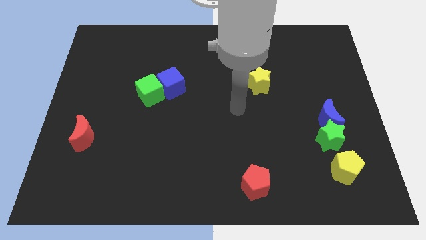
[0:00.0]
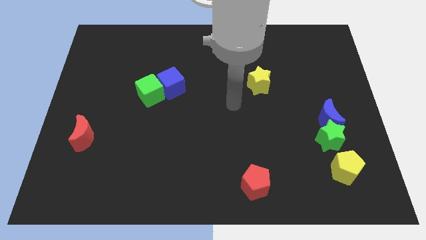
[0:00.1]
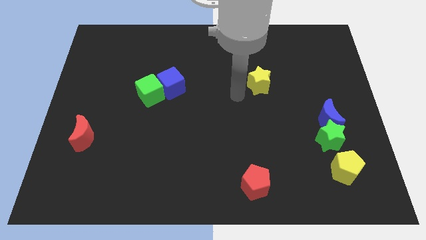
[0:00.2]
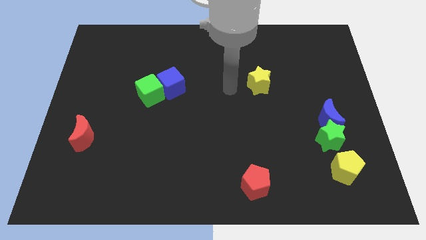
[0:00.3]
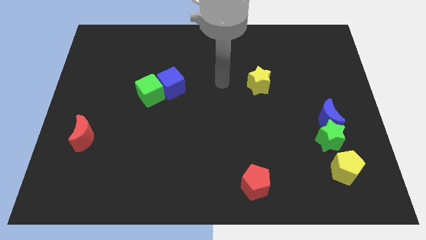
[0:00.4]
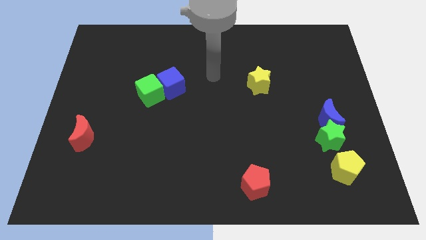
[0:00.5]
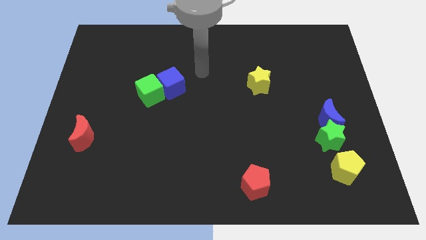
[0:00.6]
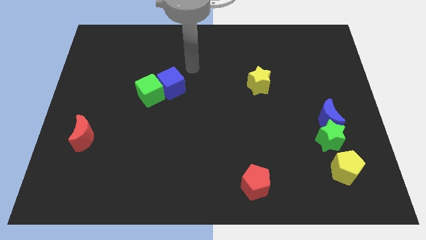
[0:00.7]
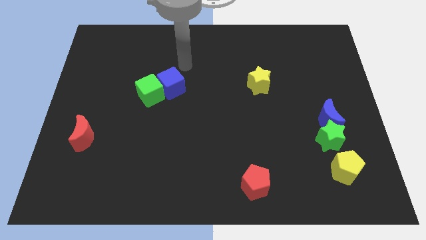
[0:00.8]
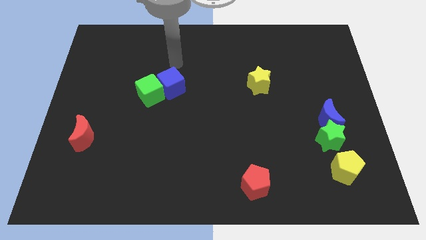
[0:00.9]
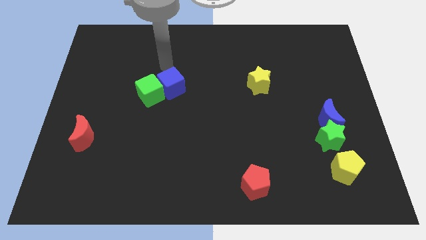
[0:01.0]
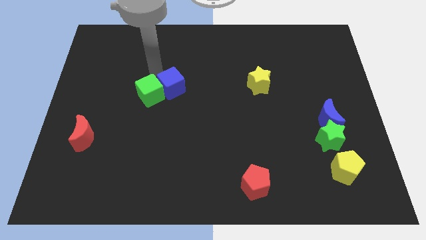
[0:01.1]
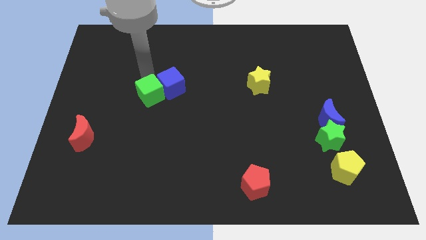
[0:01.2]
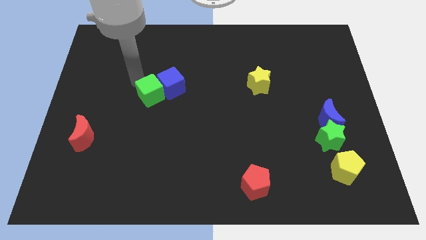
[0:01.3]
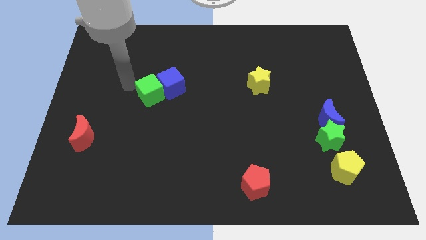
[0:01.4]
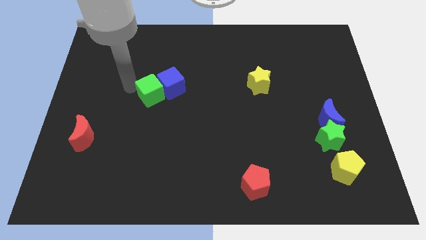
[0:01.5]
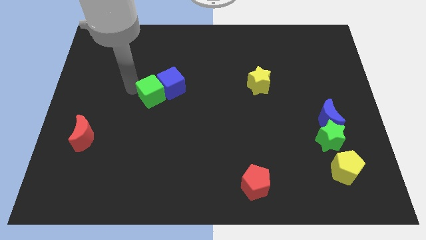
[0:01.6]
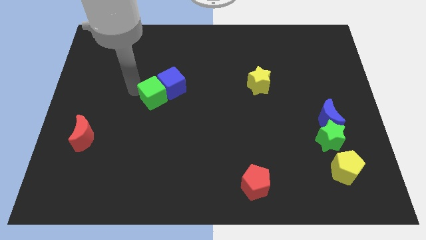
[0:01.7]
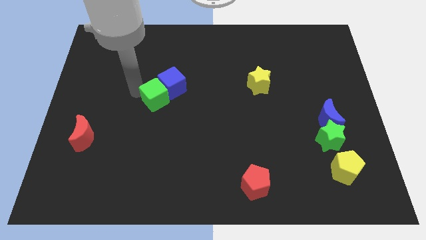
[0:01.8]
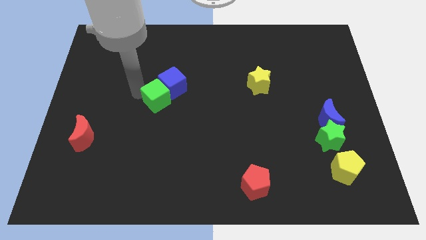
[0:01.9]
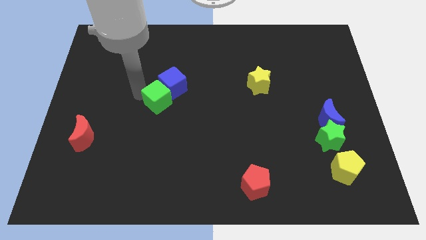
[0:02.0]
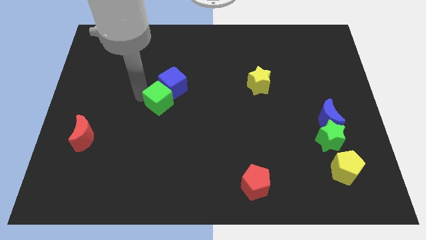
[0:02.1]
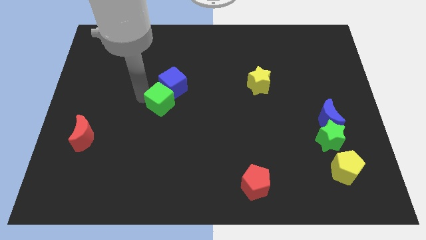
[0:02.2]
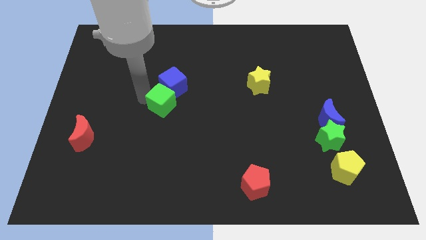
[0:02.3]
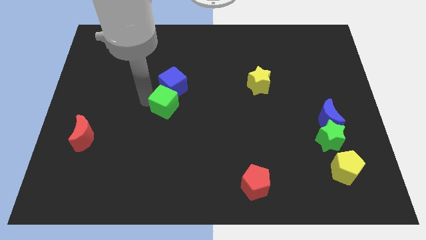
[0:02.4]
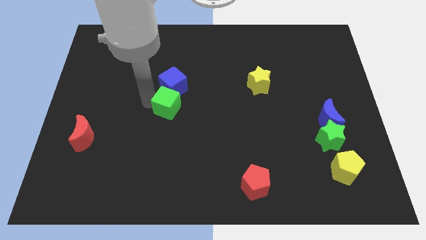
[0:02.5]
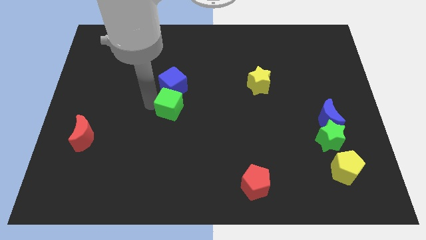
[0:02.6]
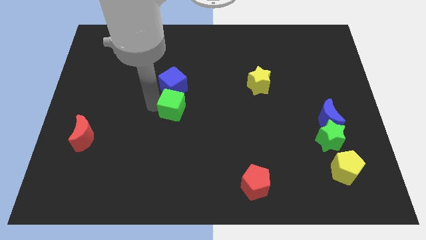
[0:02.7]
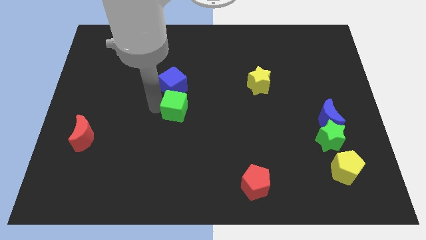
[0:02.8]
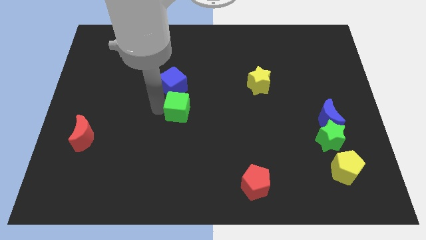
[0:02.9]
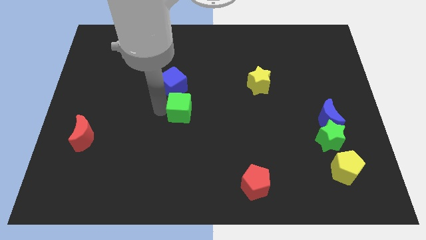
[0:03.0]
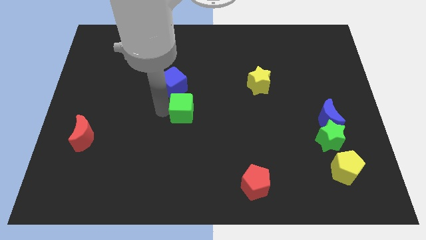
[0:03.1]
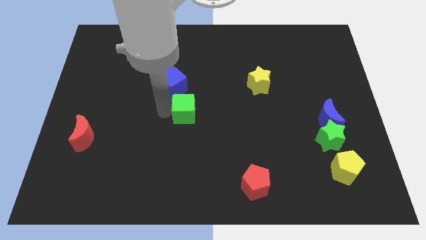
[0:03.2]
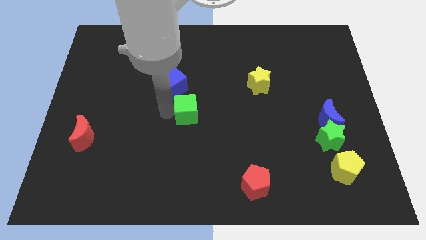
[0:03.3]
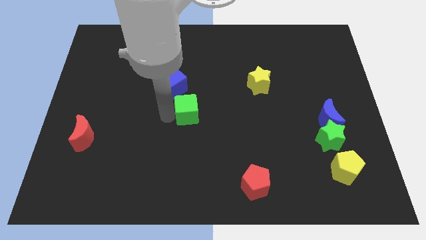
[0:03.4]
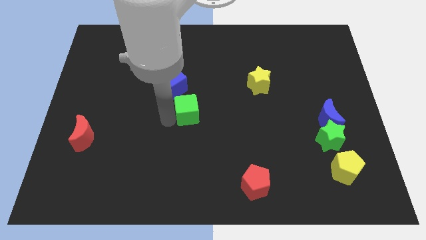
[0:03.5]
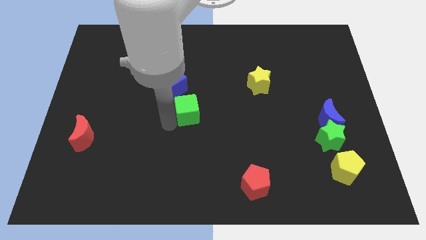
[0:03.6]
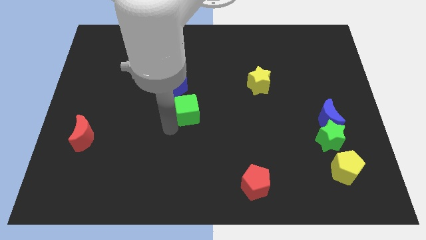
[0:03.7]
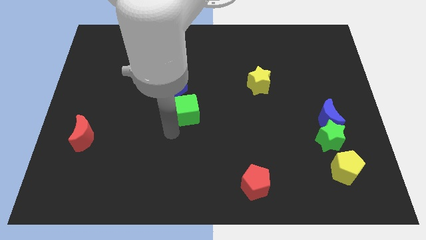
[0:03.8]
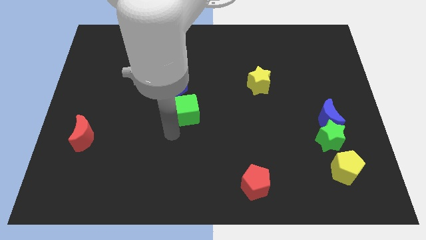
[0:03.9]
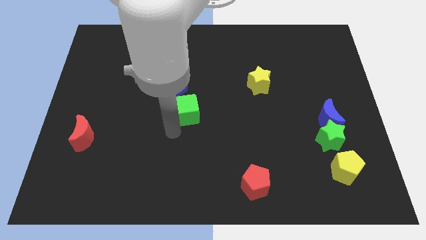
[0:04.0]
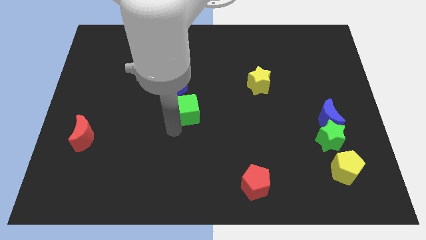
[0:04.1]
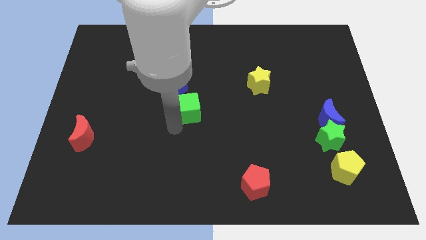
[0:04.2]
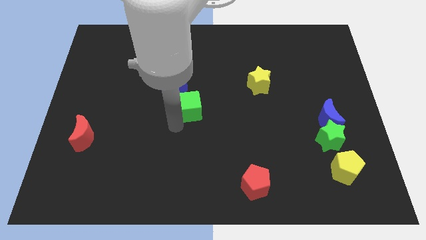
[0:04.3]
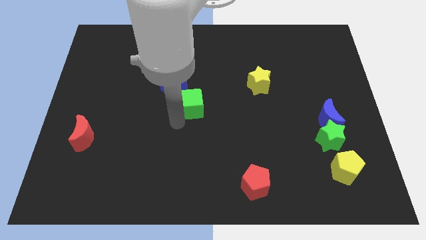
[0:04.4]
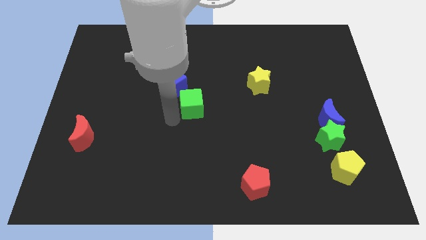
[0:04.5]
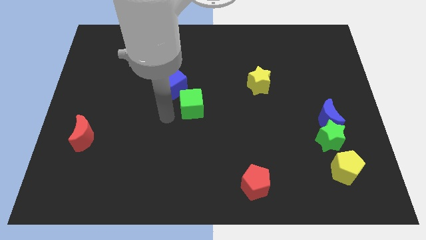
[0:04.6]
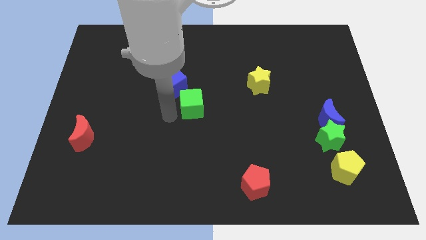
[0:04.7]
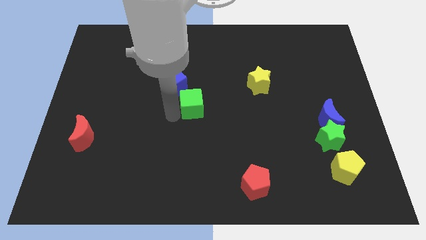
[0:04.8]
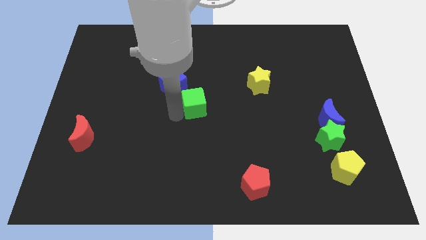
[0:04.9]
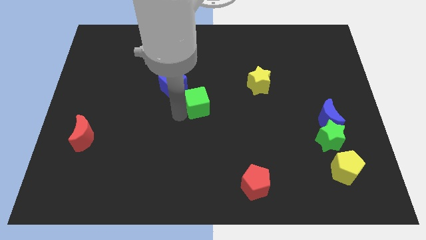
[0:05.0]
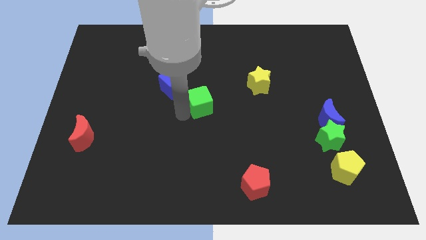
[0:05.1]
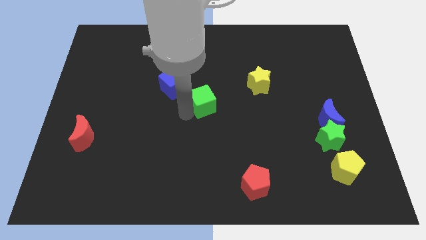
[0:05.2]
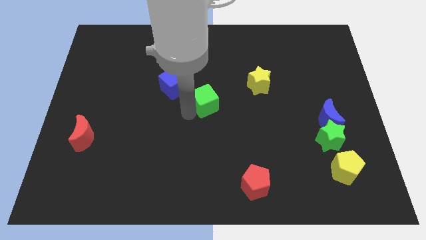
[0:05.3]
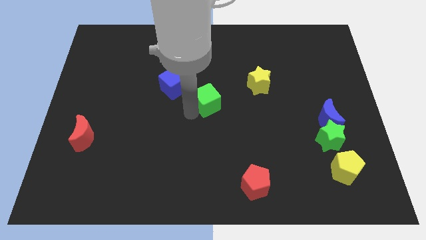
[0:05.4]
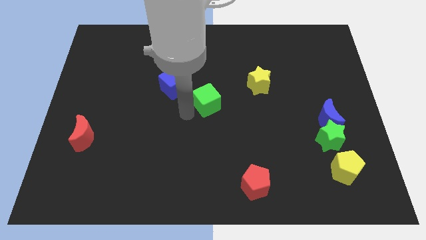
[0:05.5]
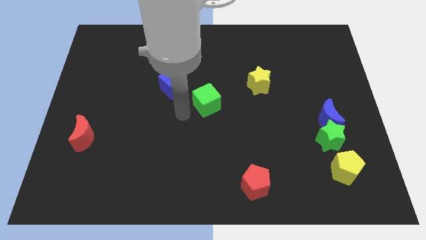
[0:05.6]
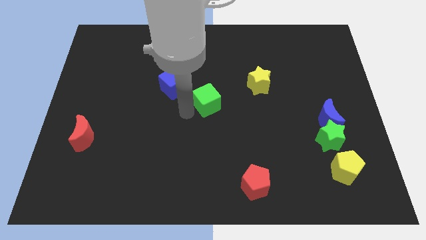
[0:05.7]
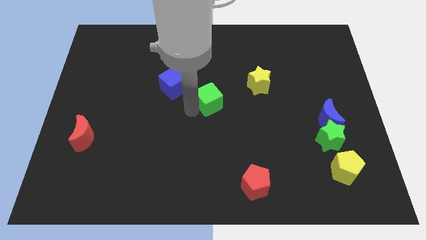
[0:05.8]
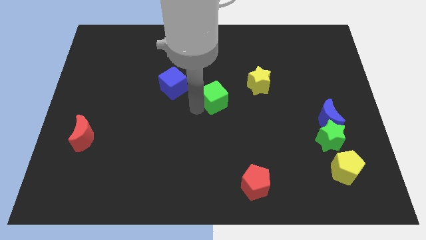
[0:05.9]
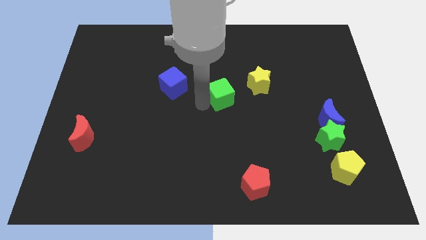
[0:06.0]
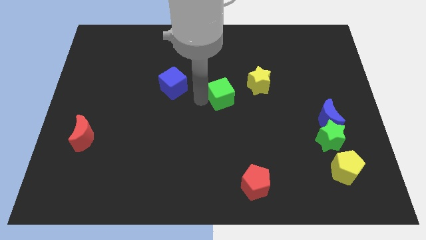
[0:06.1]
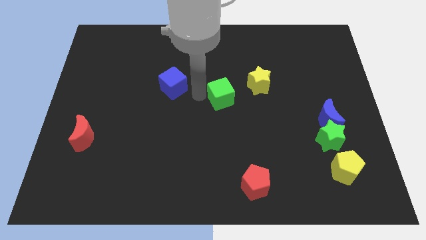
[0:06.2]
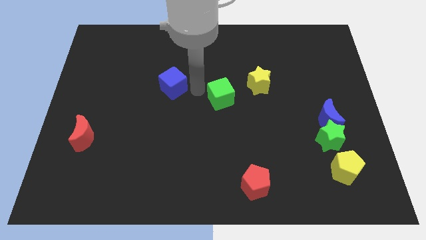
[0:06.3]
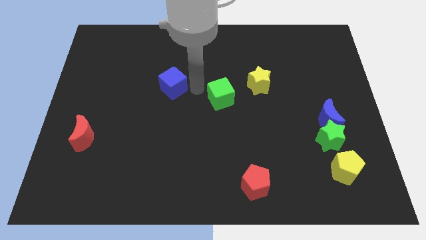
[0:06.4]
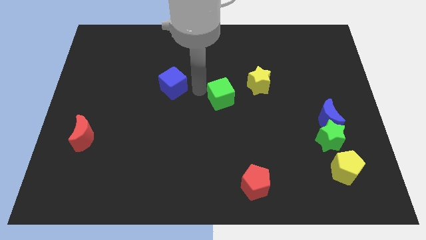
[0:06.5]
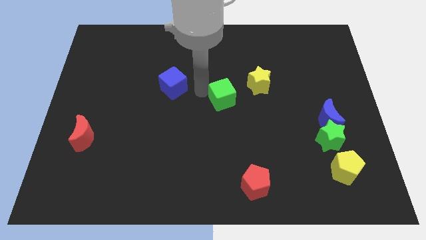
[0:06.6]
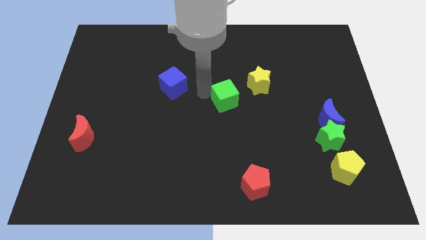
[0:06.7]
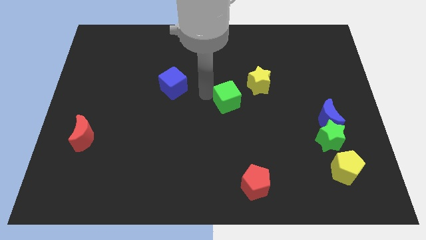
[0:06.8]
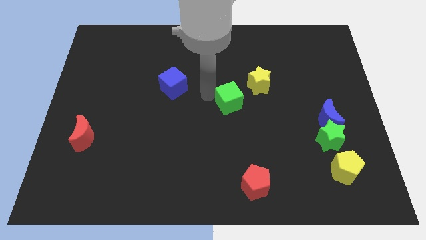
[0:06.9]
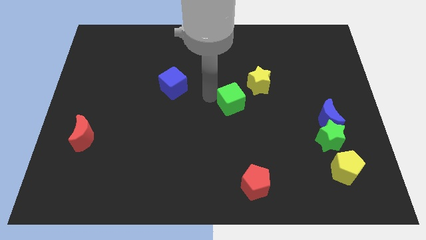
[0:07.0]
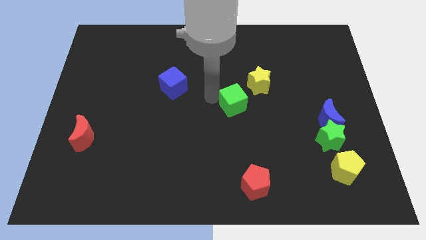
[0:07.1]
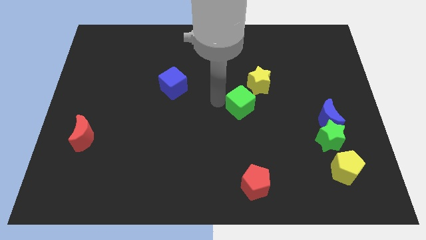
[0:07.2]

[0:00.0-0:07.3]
move the green cube to the right

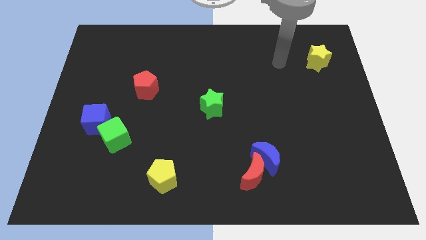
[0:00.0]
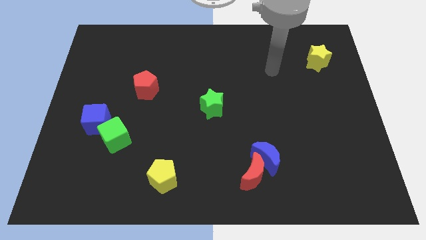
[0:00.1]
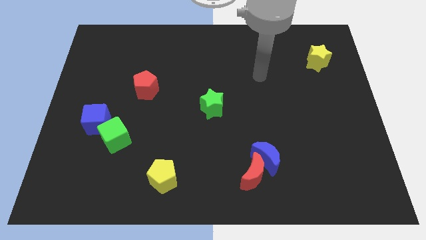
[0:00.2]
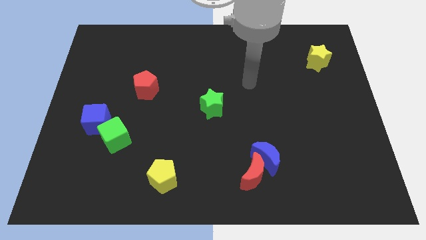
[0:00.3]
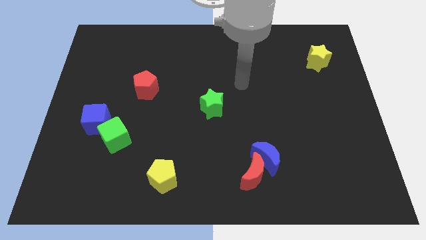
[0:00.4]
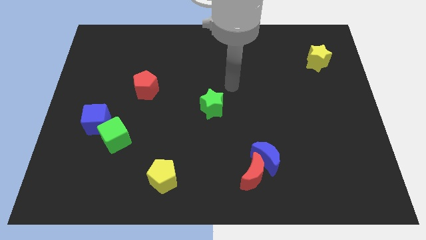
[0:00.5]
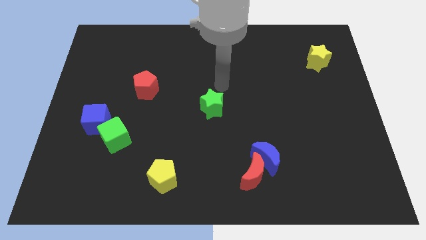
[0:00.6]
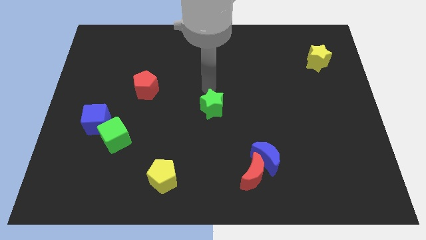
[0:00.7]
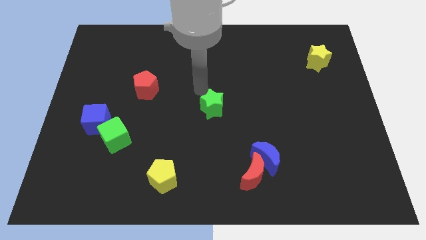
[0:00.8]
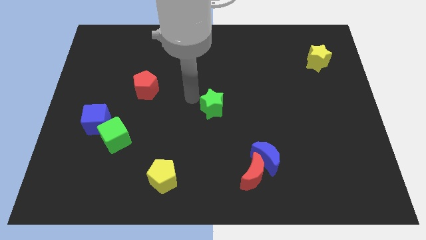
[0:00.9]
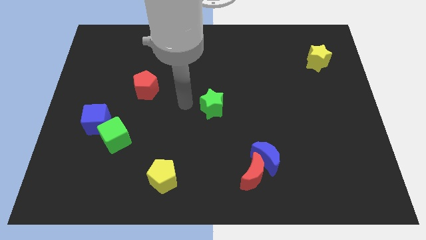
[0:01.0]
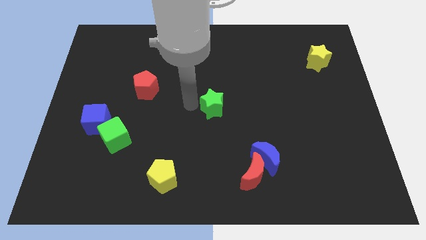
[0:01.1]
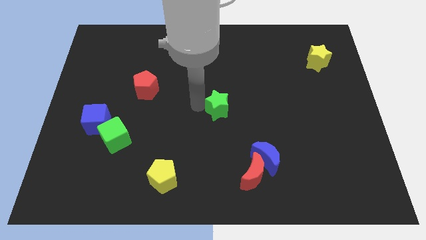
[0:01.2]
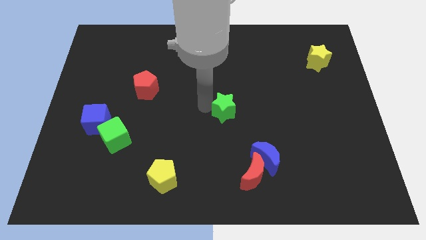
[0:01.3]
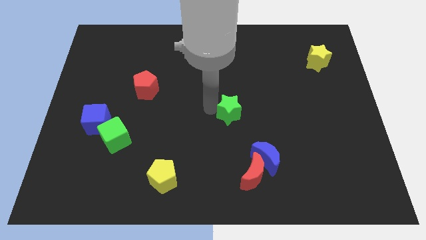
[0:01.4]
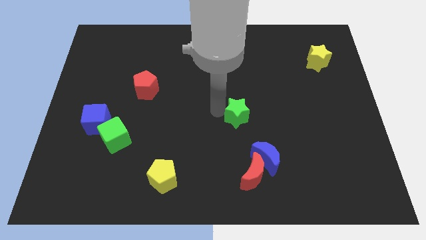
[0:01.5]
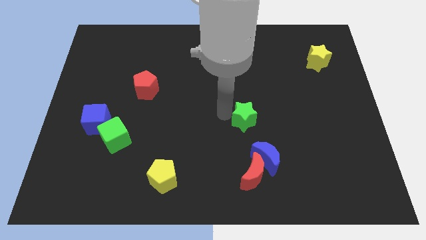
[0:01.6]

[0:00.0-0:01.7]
push the green star a bit right
